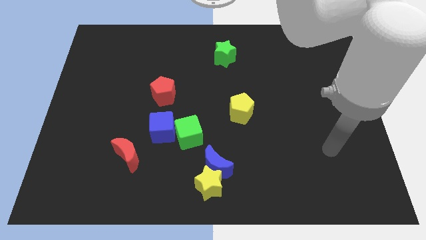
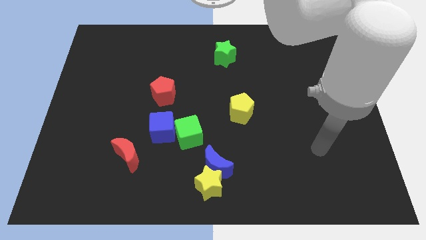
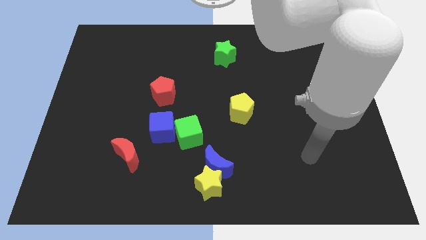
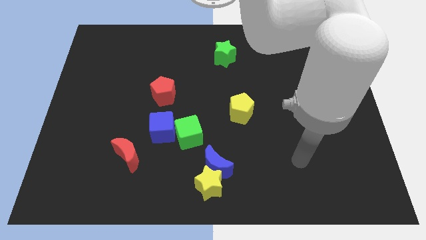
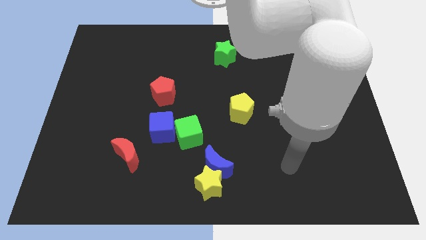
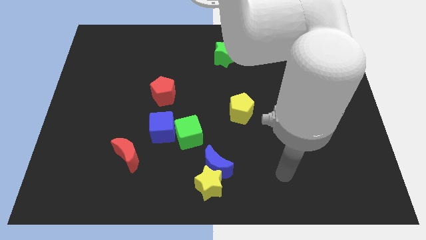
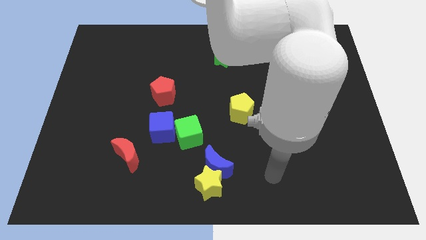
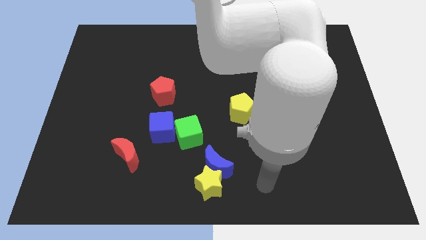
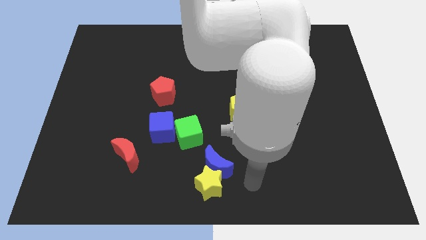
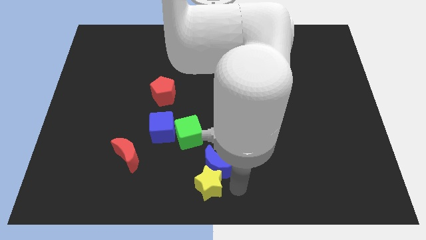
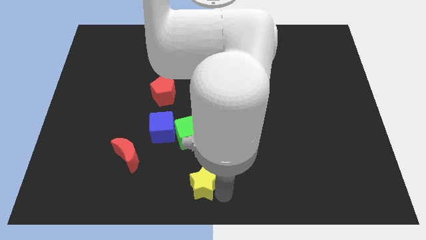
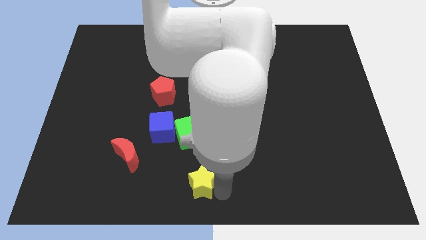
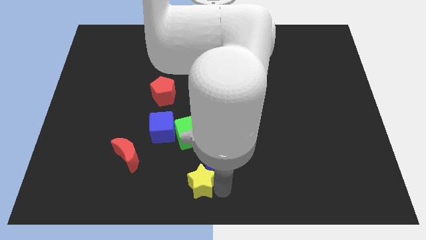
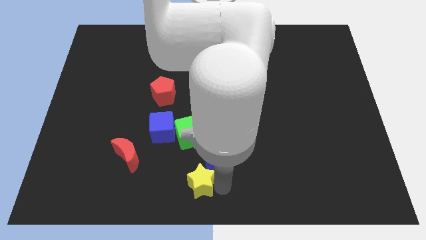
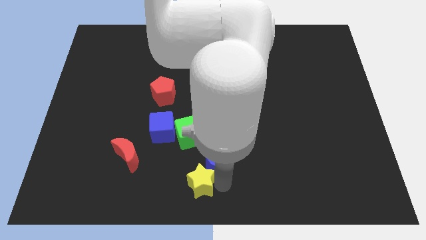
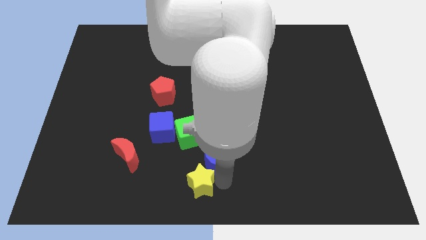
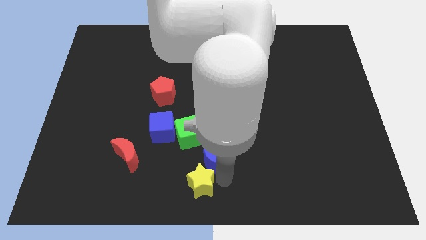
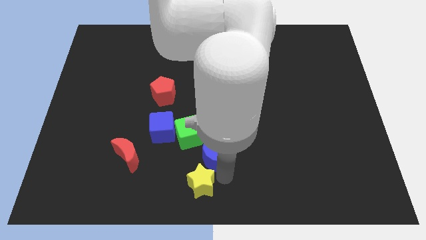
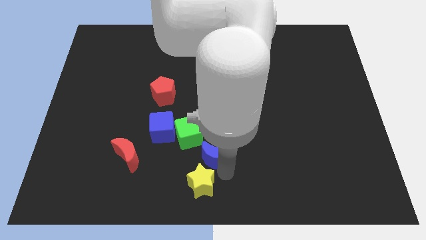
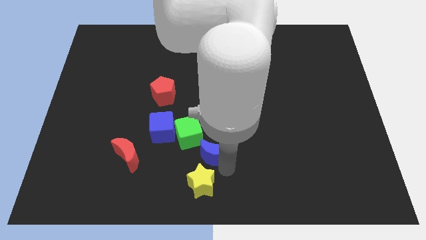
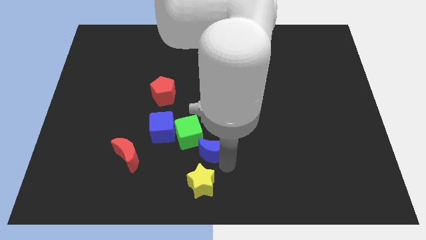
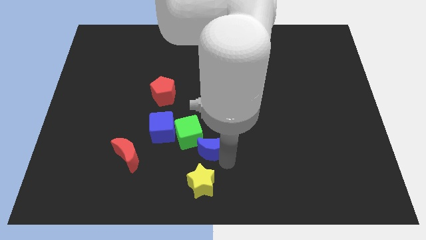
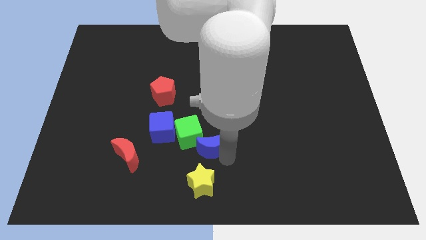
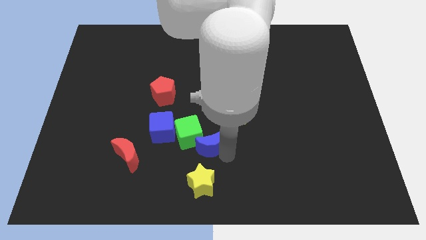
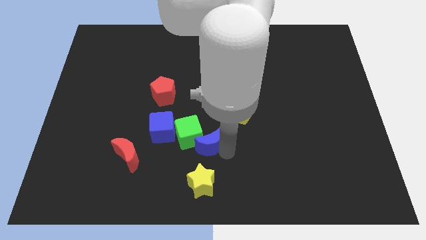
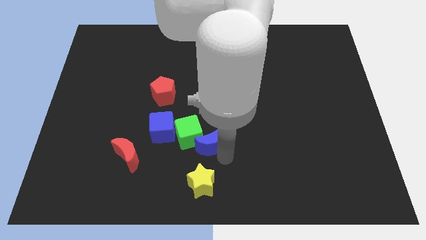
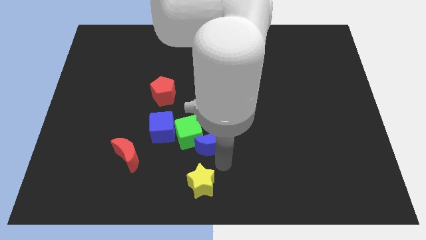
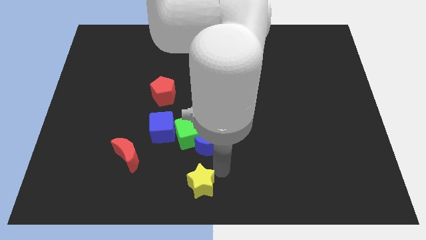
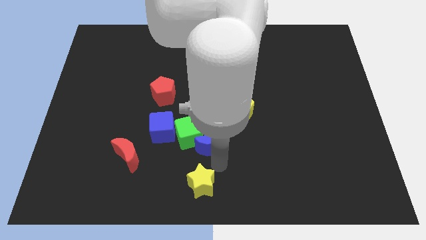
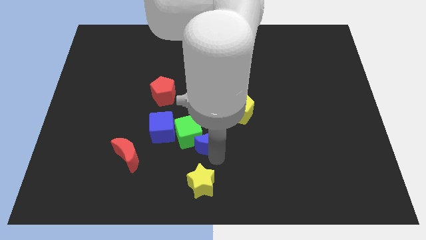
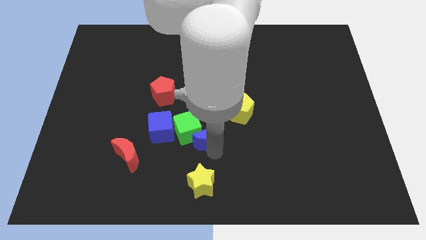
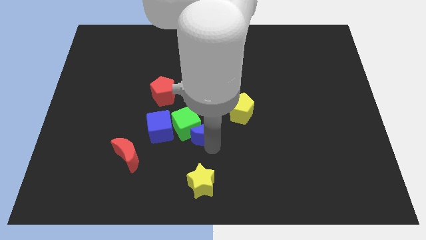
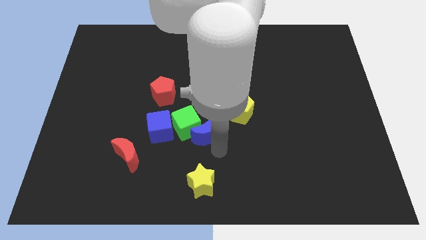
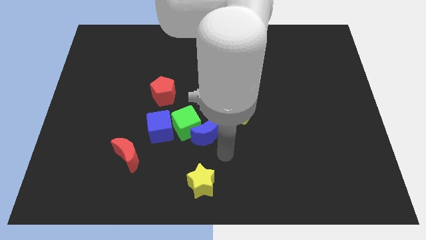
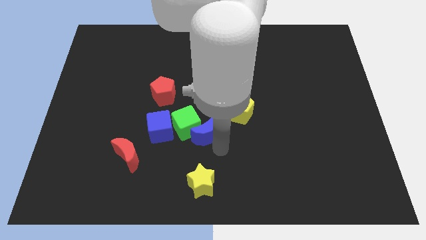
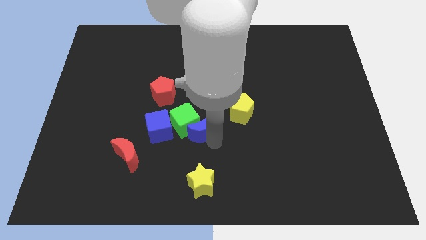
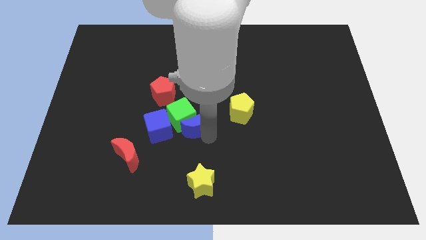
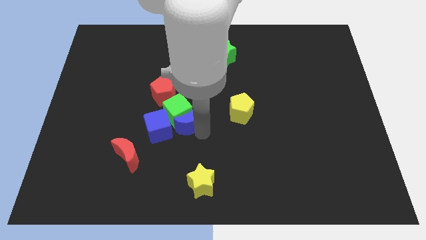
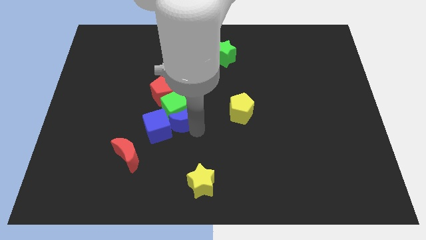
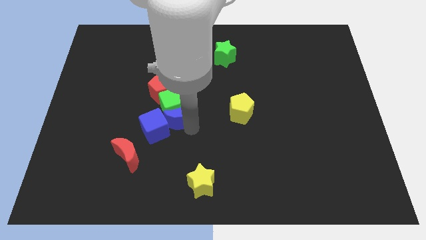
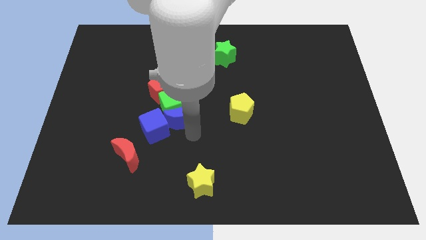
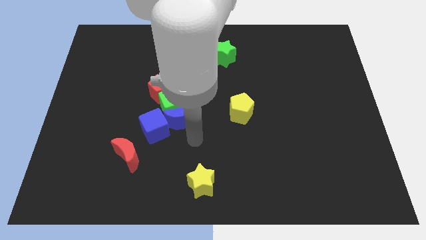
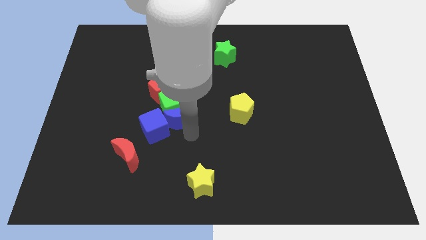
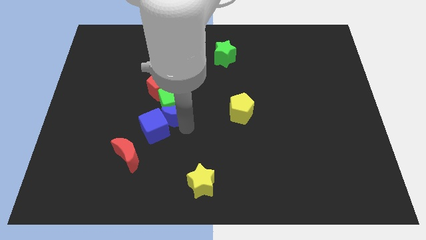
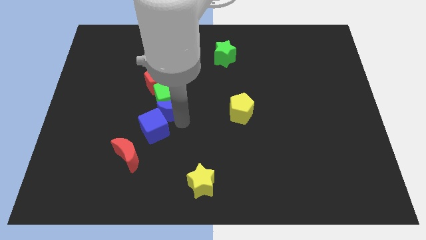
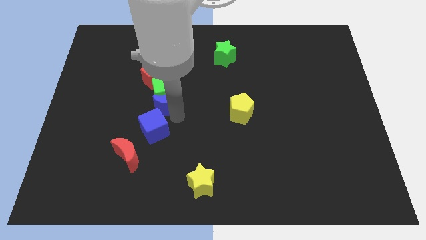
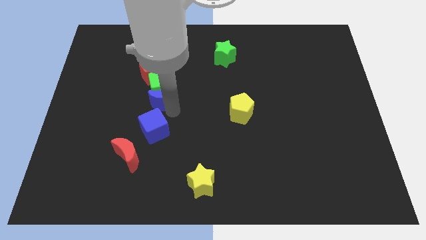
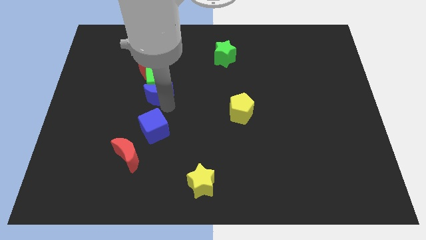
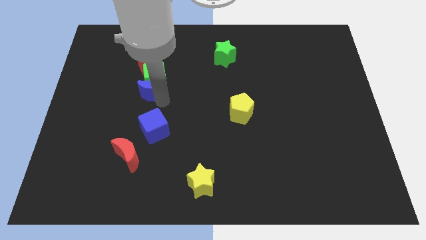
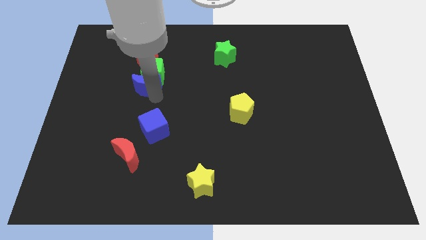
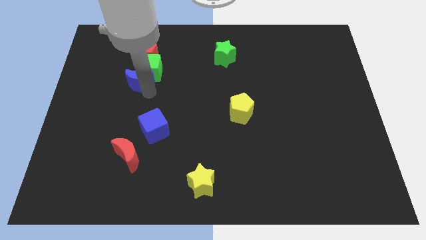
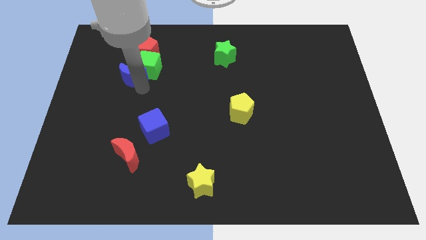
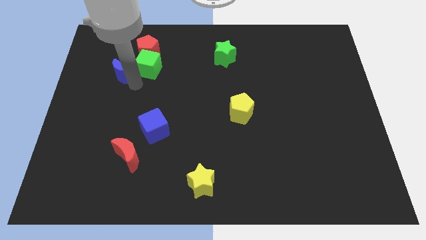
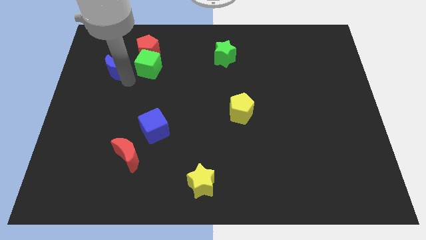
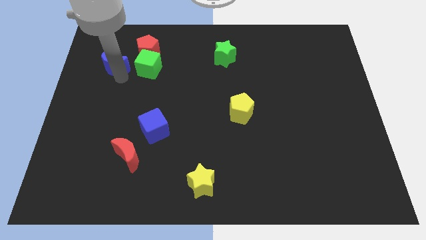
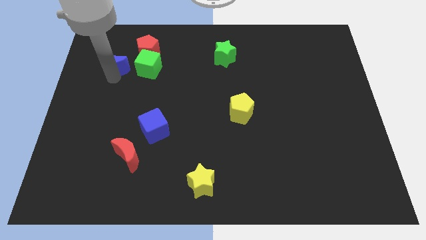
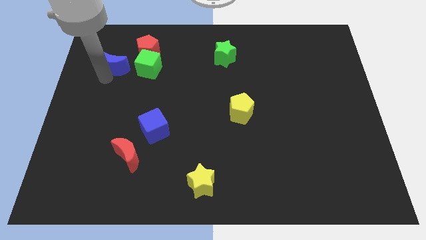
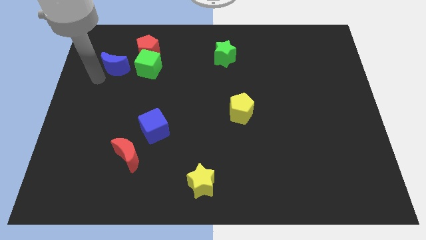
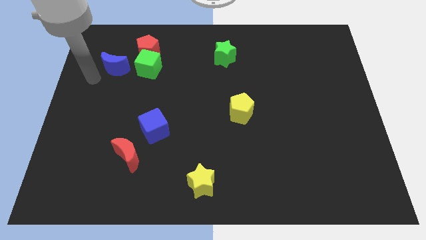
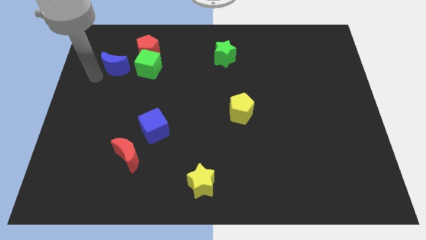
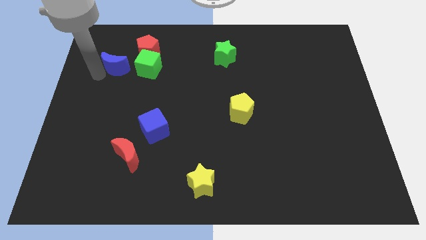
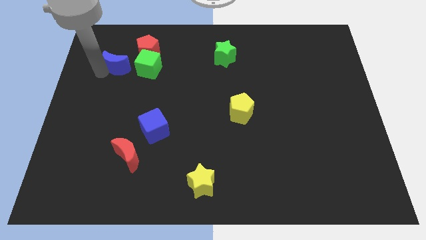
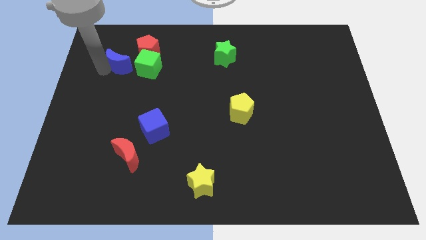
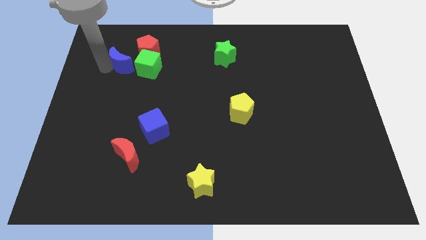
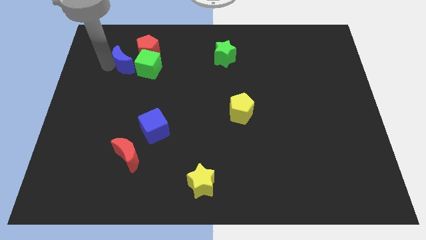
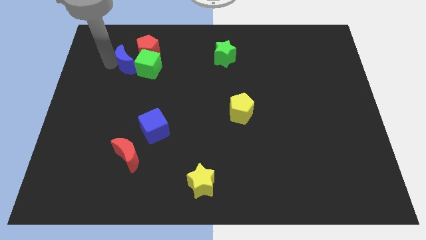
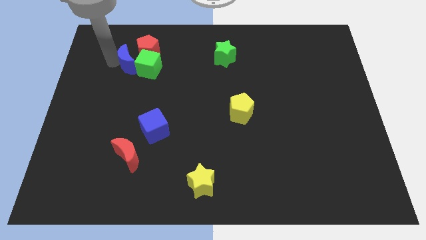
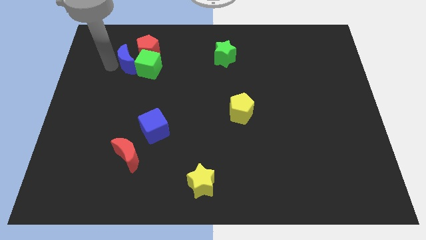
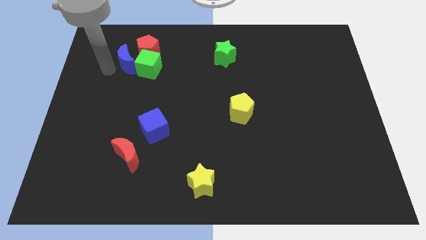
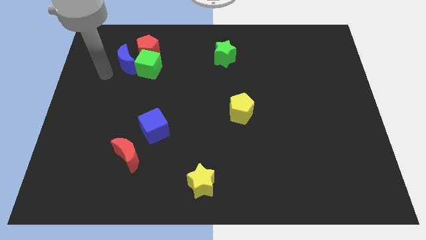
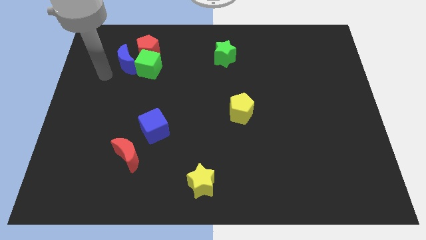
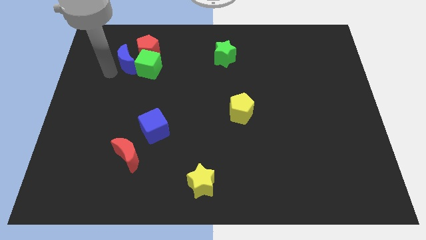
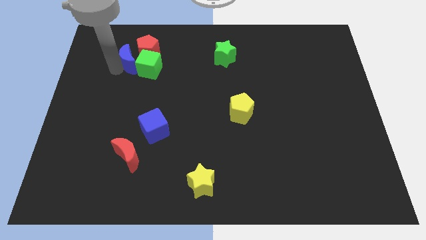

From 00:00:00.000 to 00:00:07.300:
put the blue moon close to the red pentagon

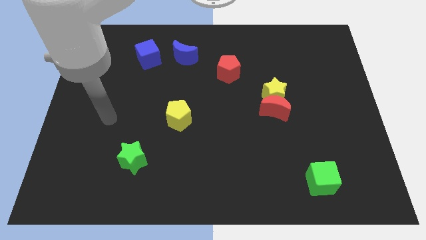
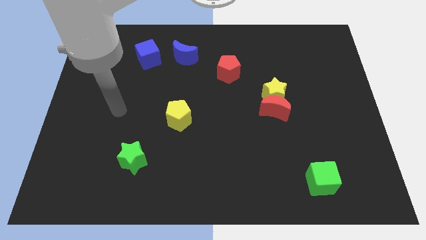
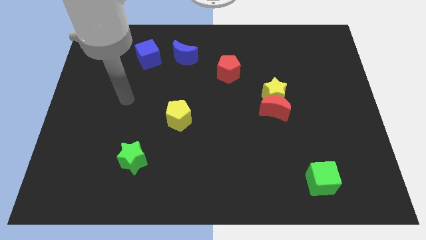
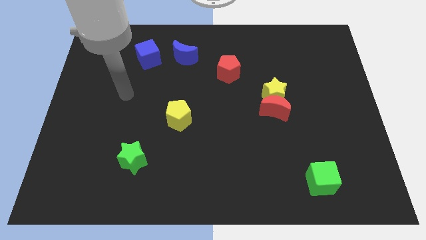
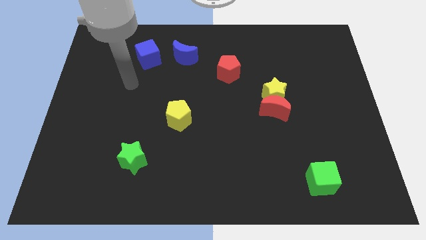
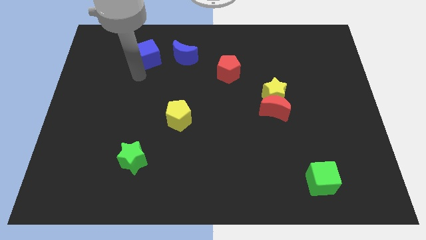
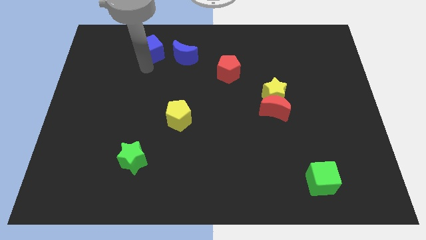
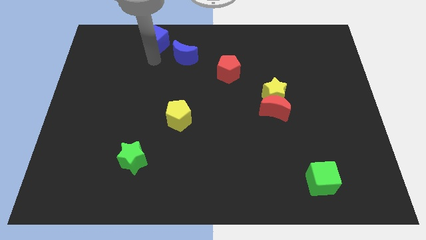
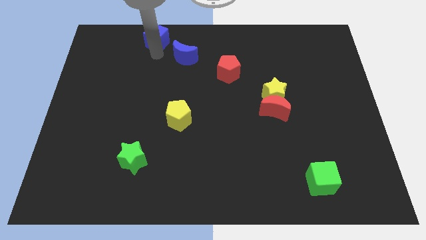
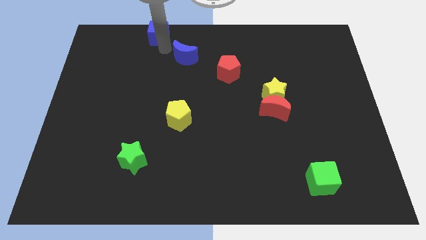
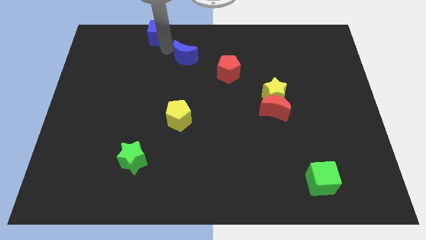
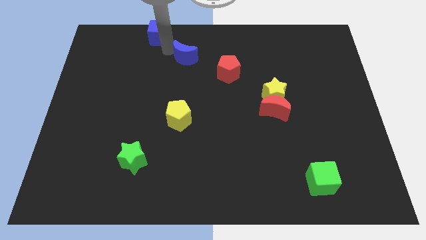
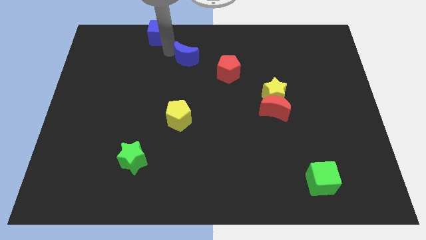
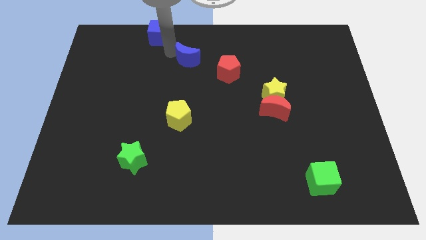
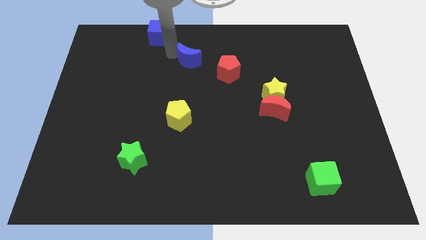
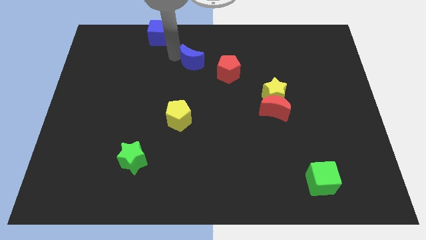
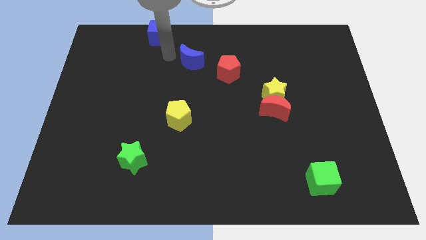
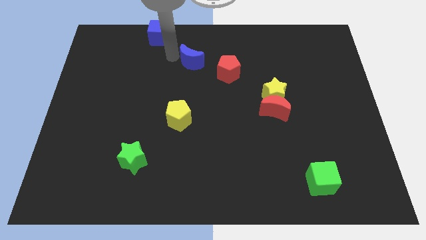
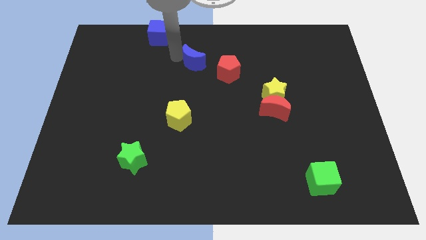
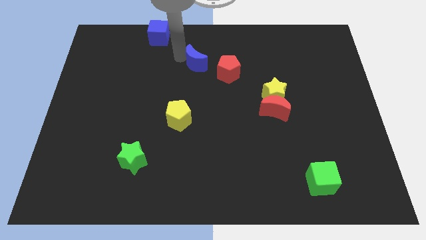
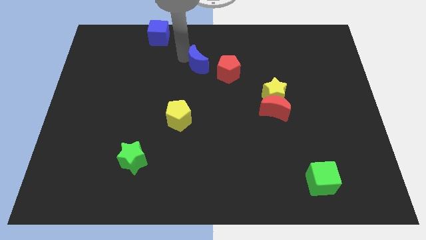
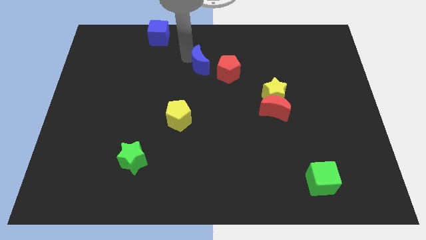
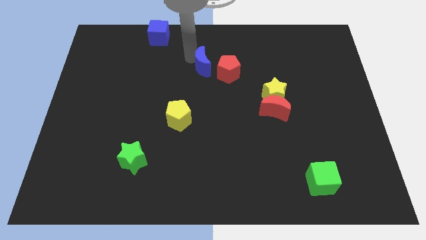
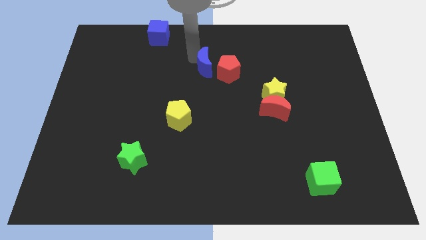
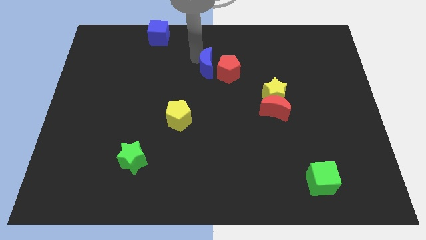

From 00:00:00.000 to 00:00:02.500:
put the blue moon to the red pentagon
